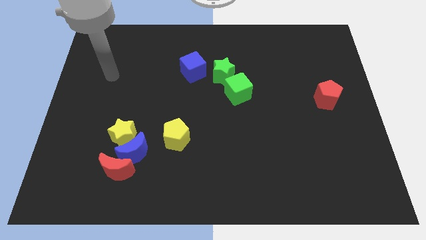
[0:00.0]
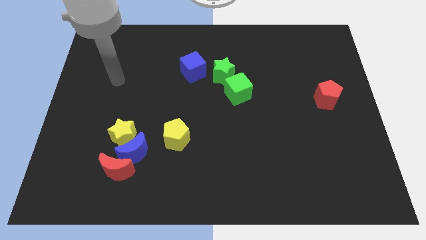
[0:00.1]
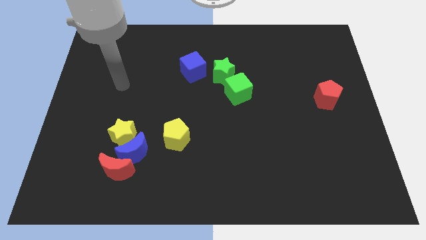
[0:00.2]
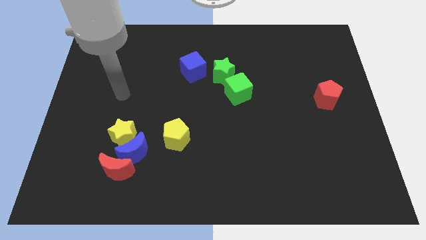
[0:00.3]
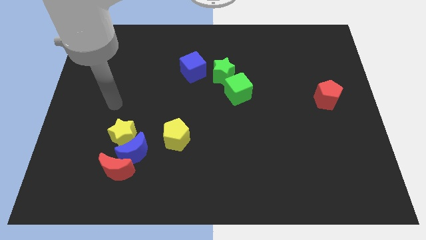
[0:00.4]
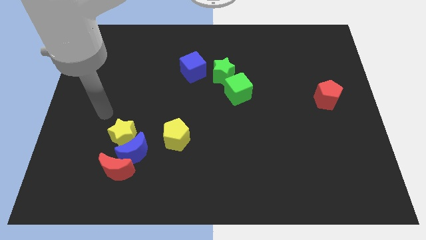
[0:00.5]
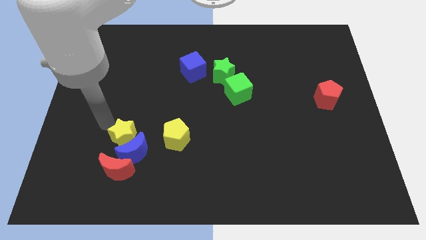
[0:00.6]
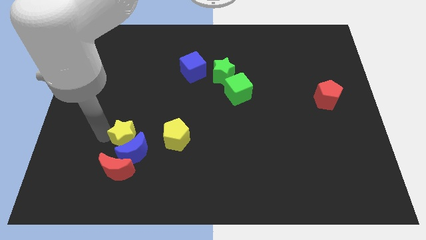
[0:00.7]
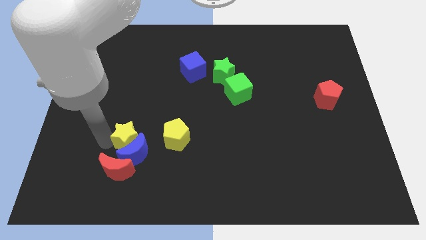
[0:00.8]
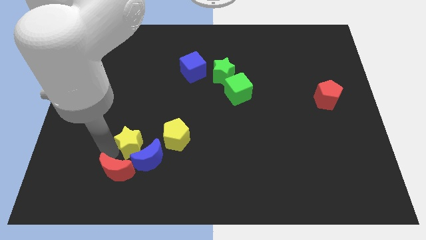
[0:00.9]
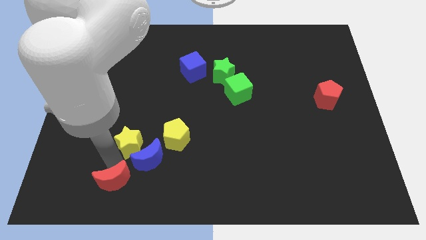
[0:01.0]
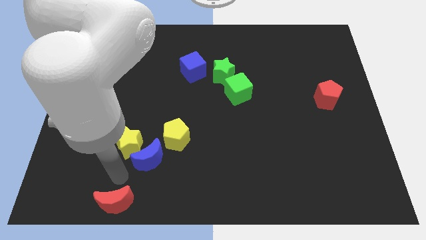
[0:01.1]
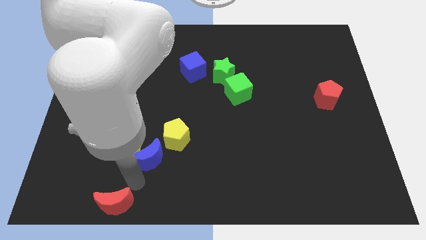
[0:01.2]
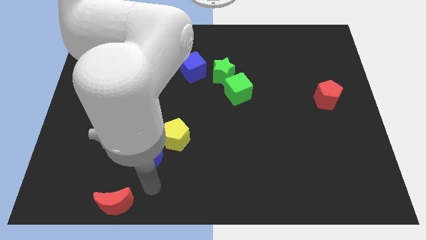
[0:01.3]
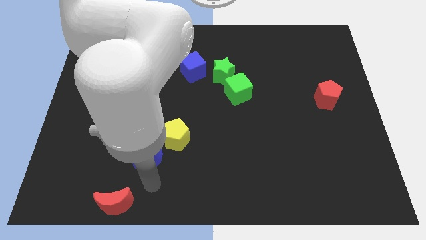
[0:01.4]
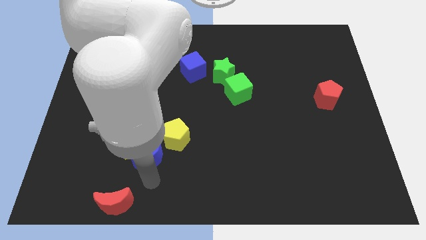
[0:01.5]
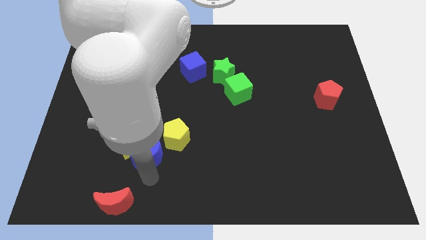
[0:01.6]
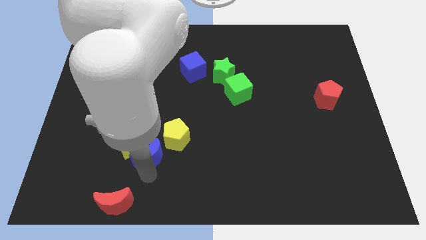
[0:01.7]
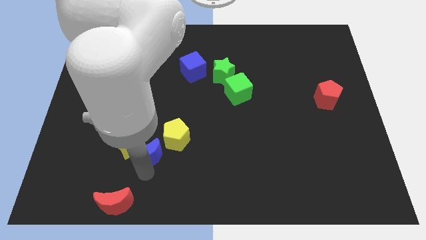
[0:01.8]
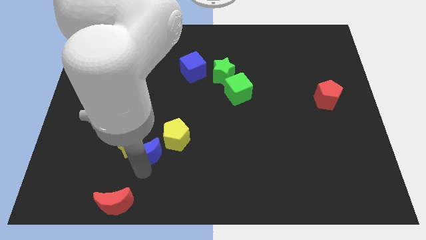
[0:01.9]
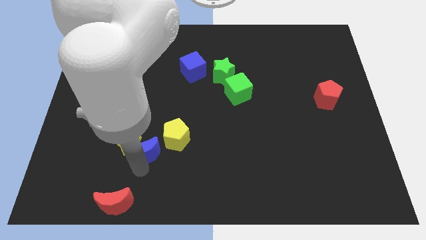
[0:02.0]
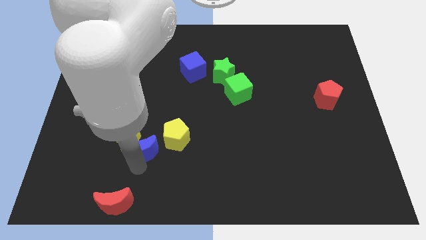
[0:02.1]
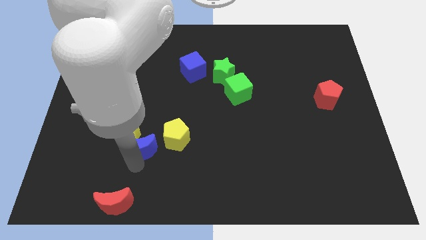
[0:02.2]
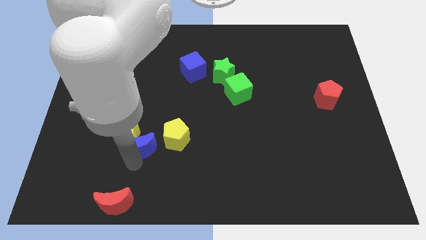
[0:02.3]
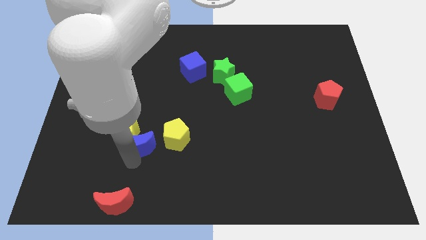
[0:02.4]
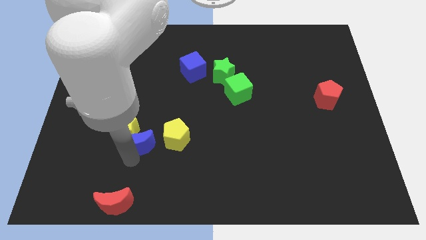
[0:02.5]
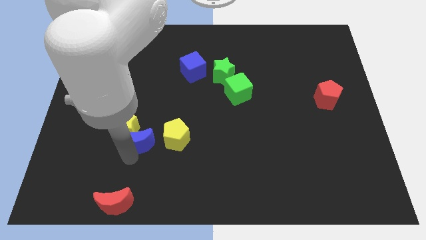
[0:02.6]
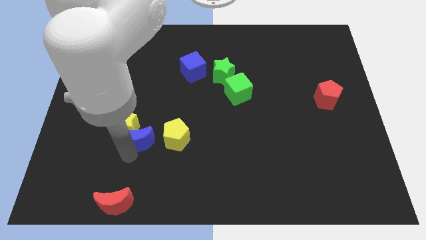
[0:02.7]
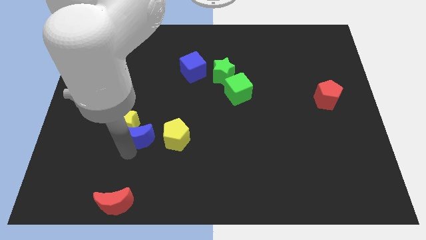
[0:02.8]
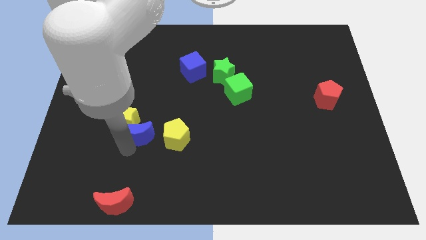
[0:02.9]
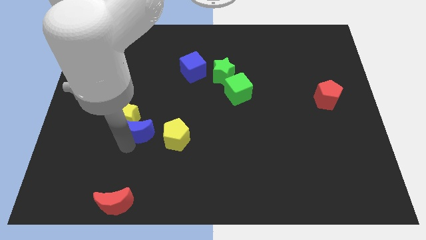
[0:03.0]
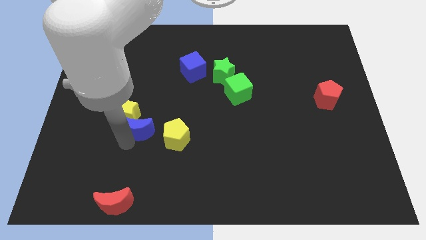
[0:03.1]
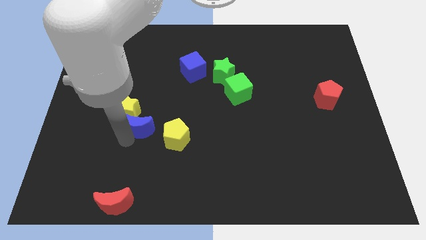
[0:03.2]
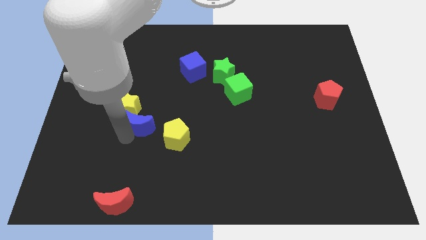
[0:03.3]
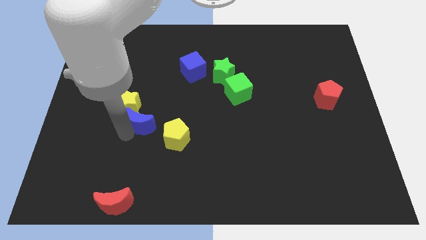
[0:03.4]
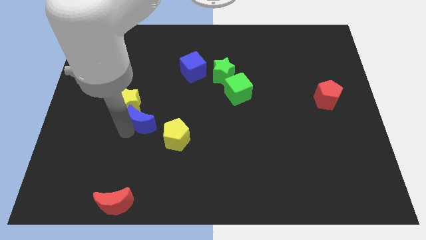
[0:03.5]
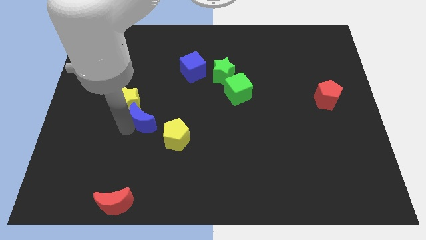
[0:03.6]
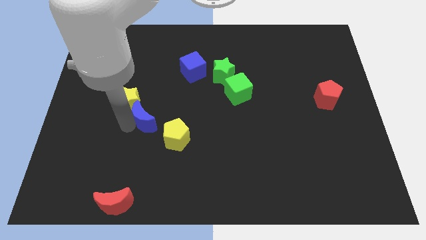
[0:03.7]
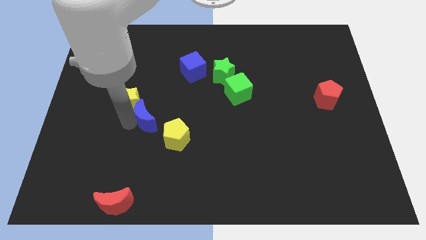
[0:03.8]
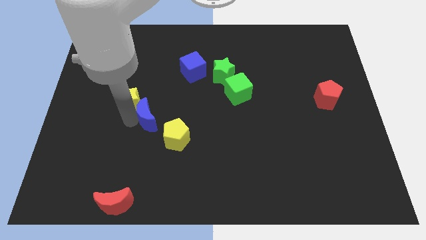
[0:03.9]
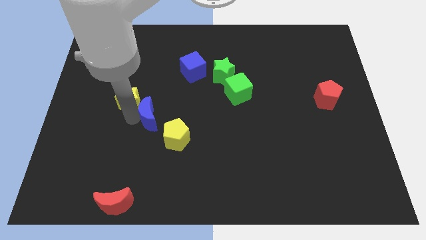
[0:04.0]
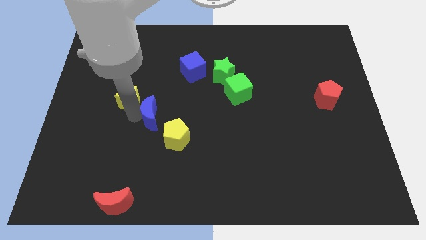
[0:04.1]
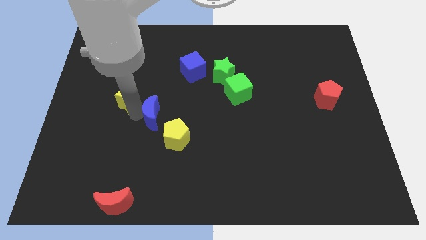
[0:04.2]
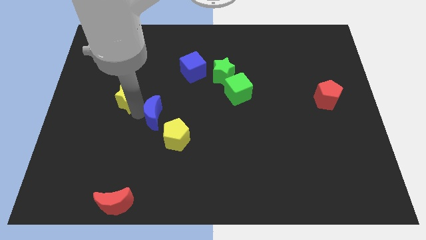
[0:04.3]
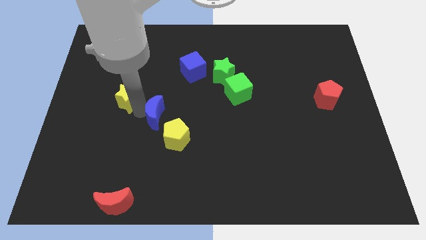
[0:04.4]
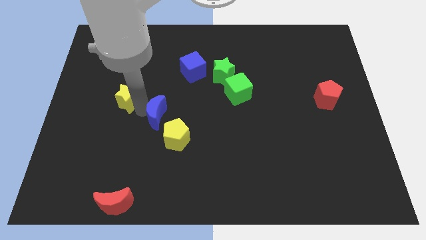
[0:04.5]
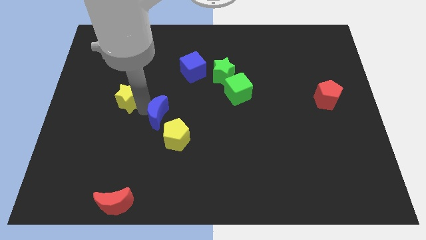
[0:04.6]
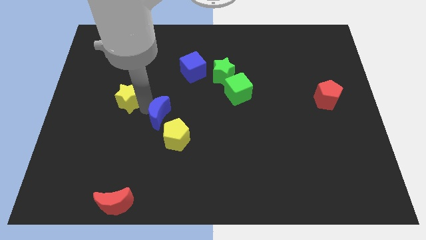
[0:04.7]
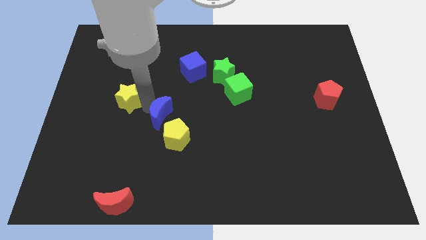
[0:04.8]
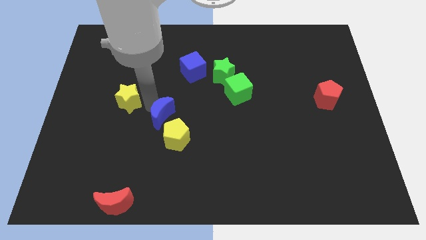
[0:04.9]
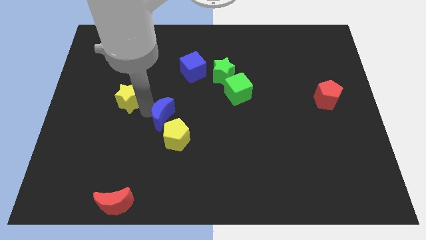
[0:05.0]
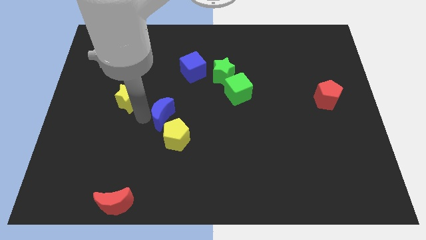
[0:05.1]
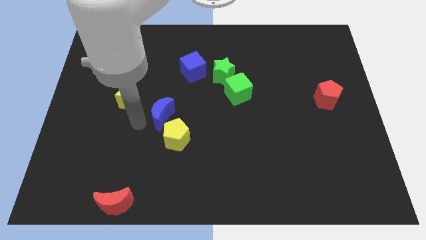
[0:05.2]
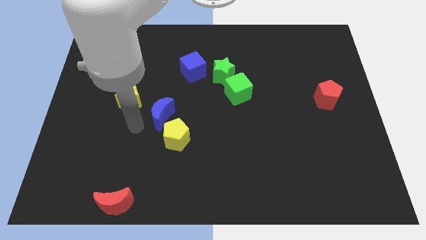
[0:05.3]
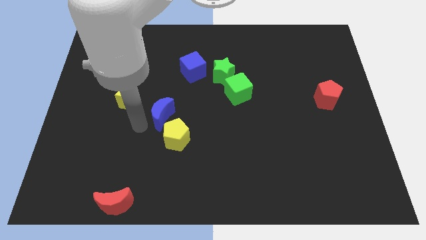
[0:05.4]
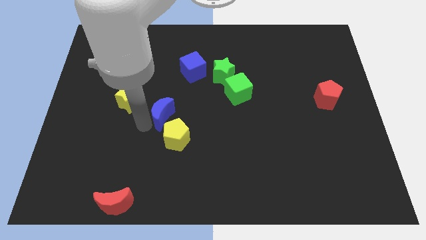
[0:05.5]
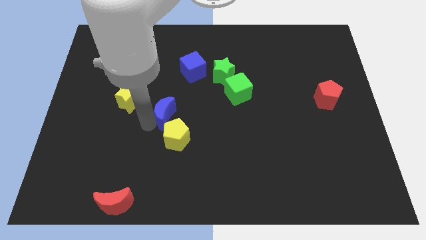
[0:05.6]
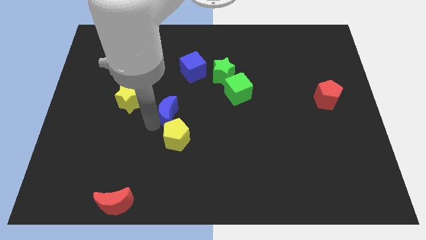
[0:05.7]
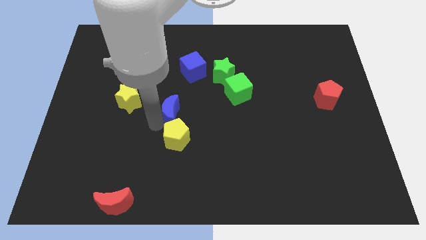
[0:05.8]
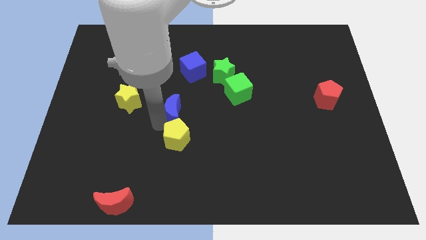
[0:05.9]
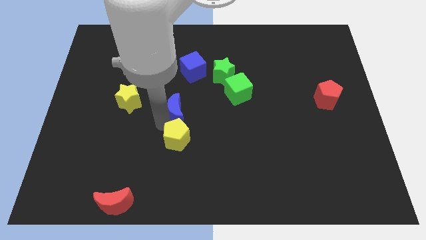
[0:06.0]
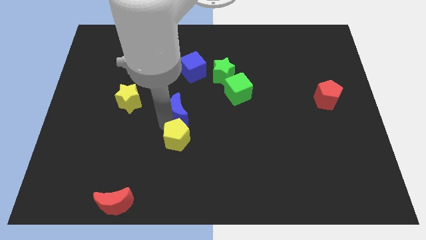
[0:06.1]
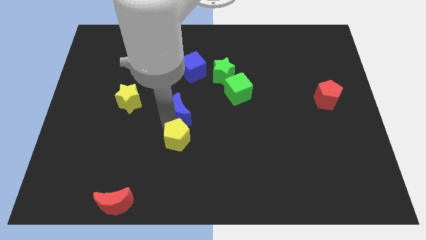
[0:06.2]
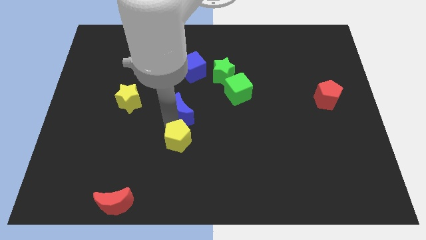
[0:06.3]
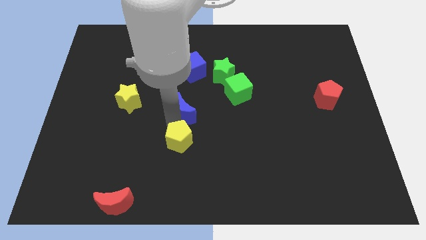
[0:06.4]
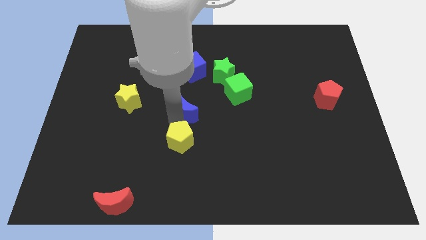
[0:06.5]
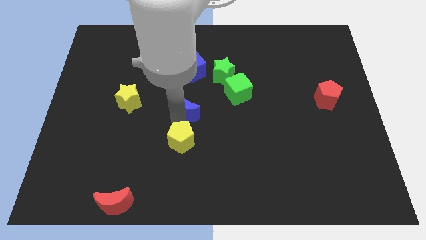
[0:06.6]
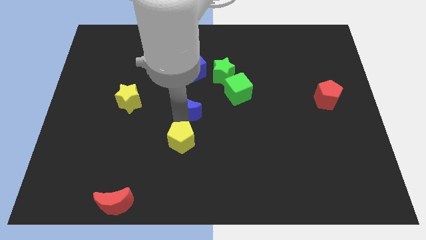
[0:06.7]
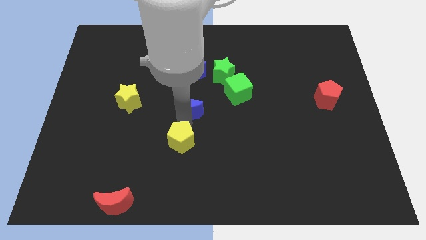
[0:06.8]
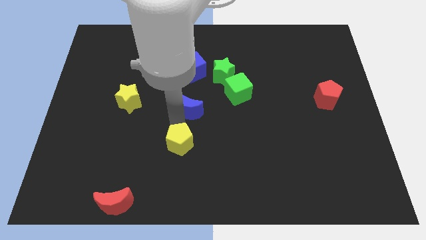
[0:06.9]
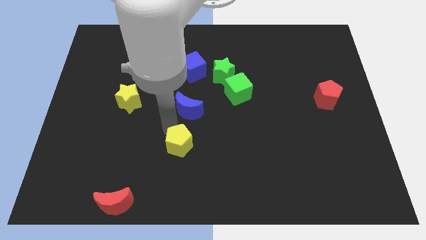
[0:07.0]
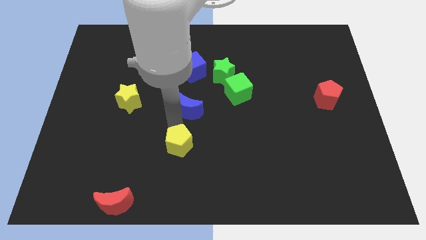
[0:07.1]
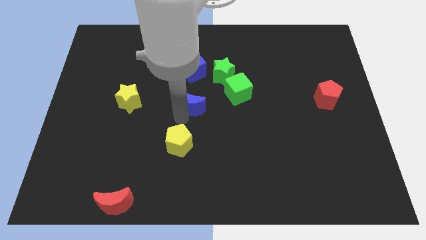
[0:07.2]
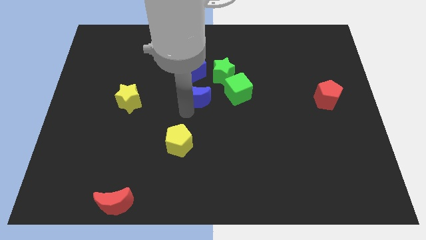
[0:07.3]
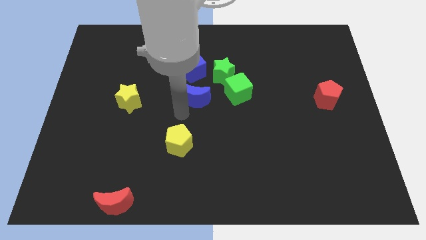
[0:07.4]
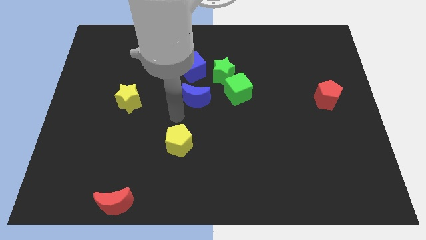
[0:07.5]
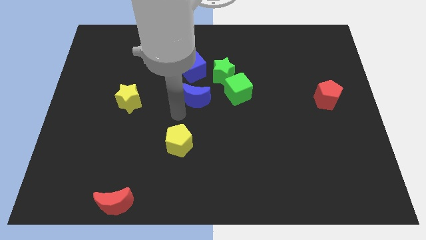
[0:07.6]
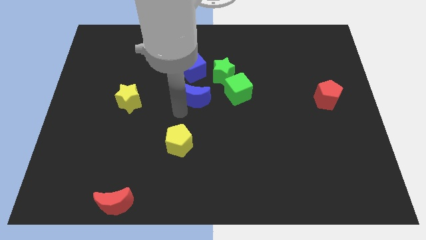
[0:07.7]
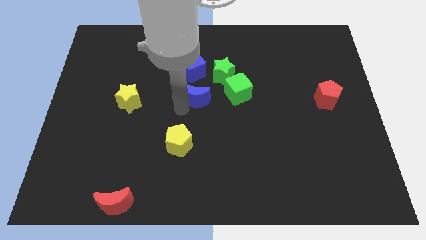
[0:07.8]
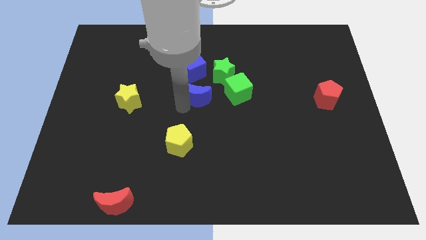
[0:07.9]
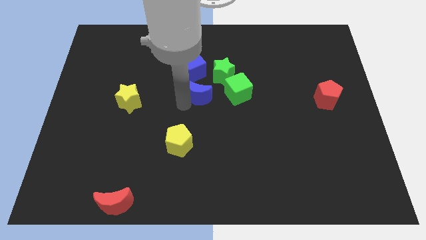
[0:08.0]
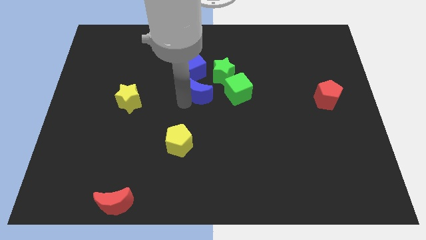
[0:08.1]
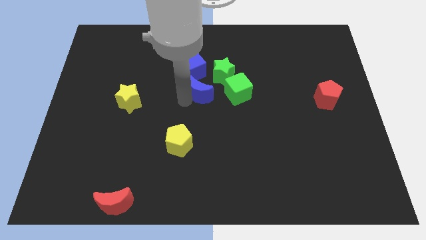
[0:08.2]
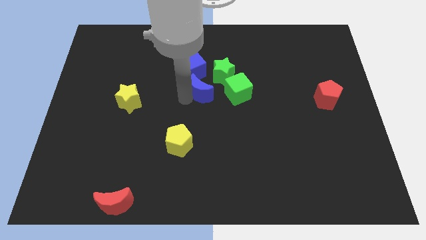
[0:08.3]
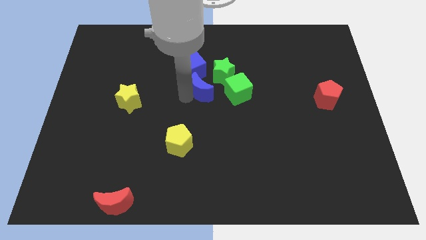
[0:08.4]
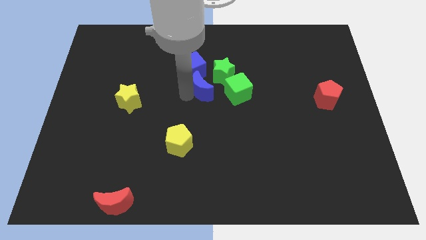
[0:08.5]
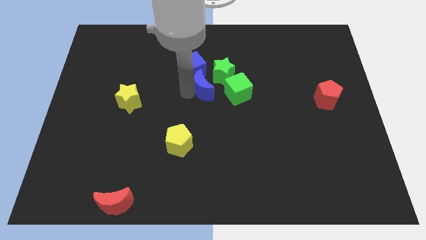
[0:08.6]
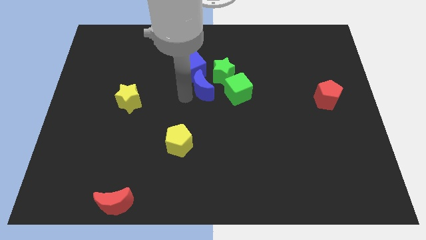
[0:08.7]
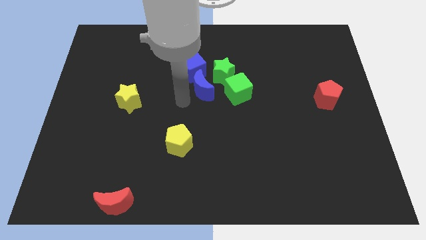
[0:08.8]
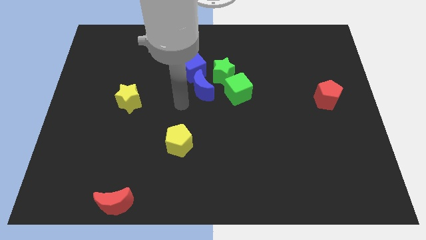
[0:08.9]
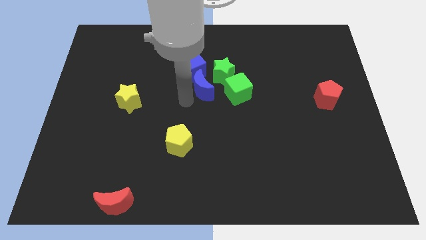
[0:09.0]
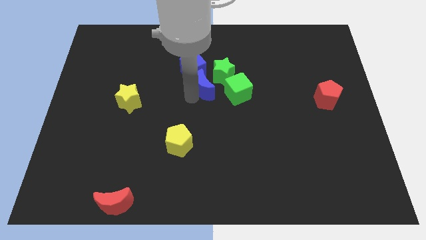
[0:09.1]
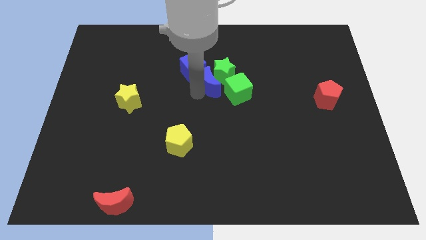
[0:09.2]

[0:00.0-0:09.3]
put the blue moon close to the green star
